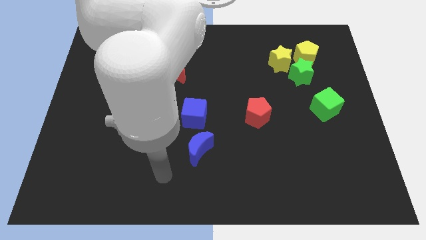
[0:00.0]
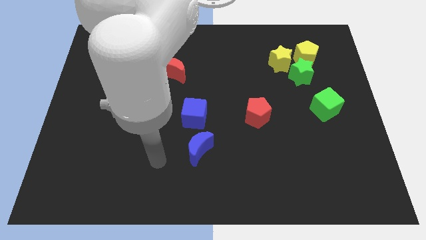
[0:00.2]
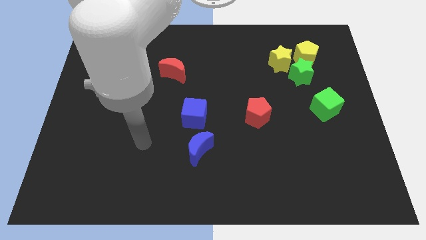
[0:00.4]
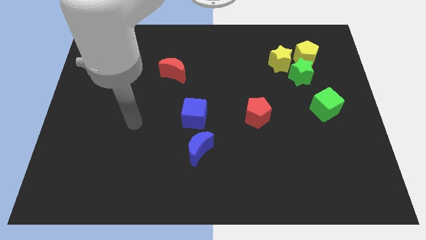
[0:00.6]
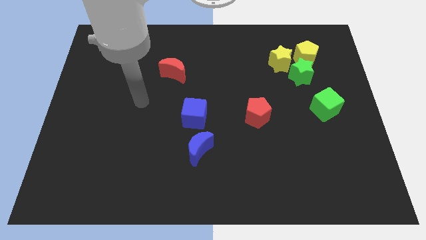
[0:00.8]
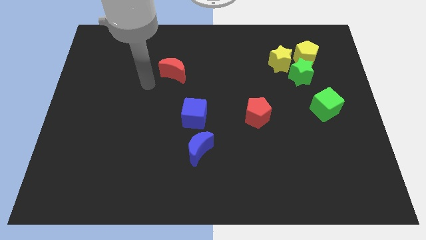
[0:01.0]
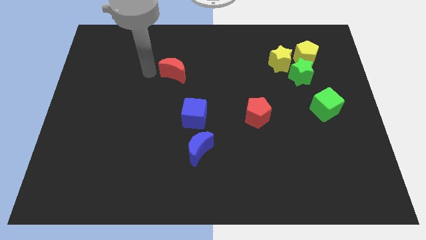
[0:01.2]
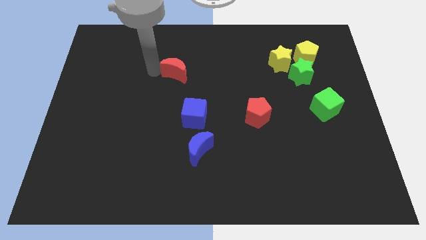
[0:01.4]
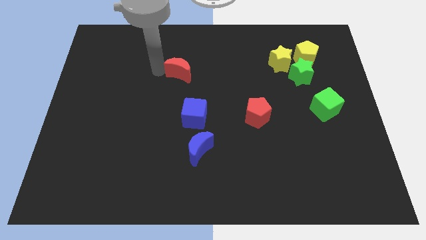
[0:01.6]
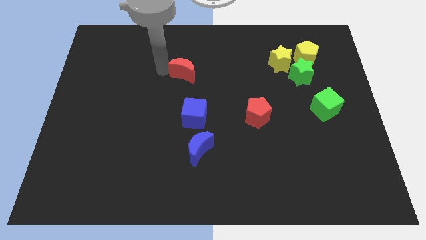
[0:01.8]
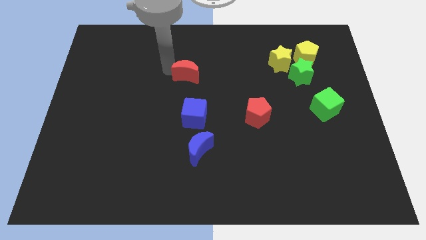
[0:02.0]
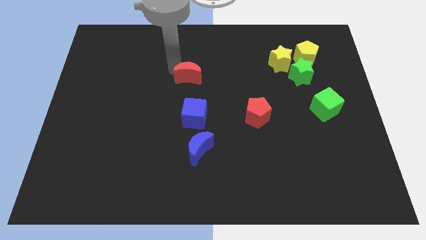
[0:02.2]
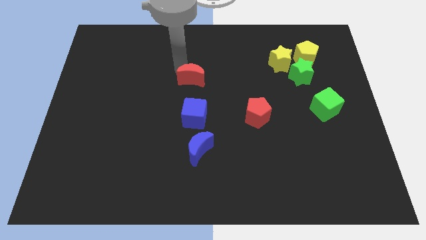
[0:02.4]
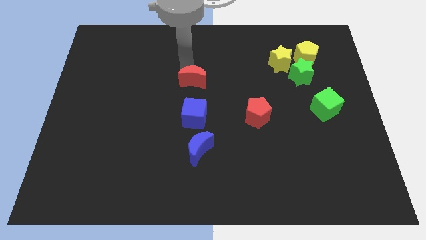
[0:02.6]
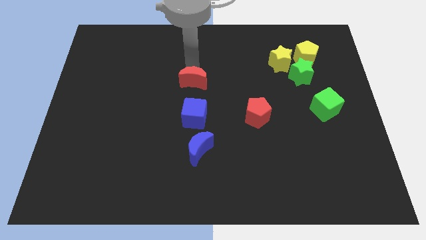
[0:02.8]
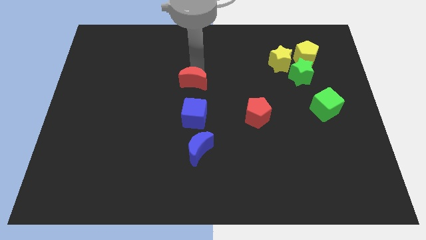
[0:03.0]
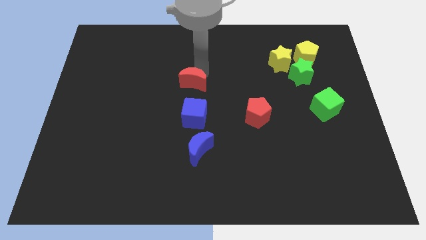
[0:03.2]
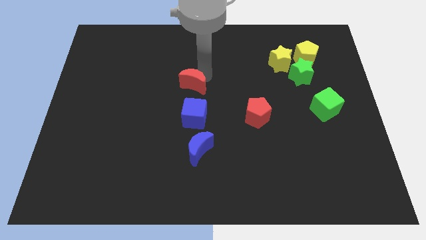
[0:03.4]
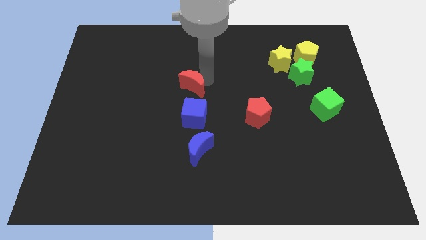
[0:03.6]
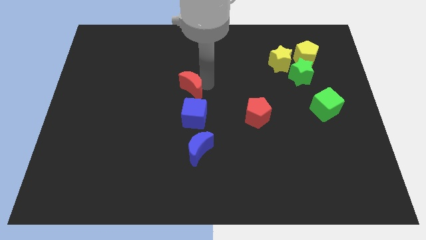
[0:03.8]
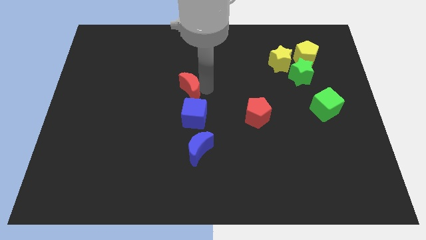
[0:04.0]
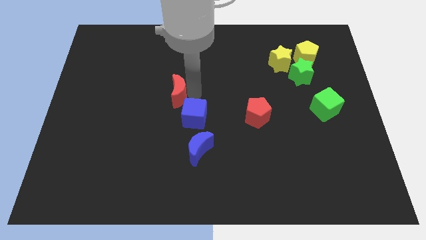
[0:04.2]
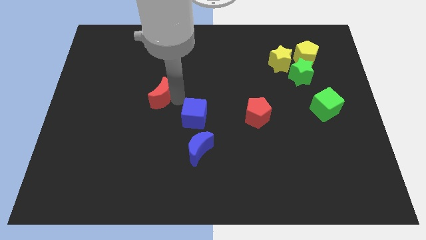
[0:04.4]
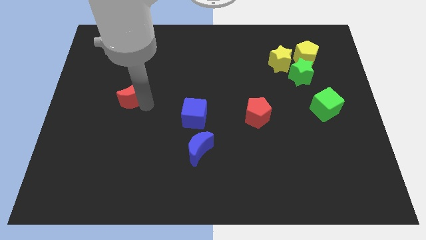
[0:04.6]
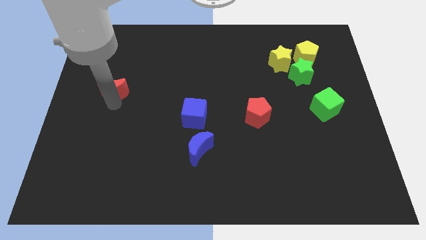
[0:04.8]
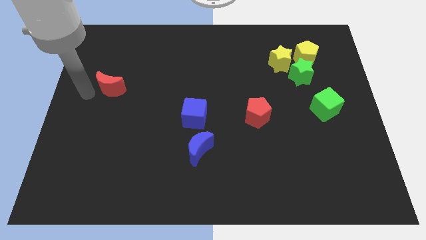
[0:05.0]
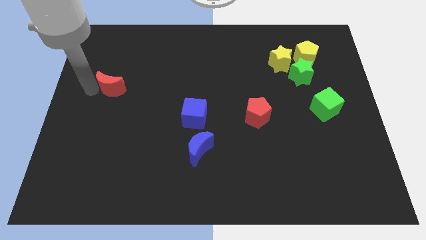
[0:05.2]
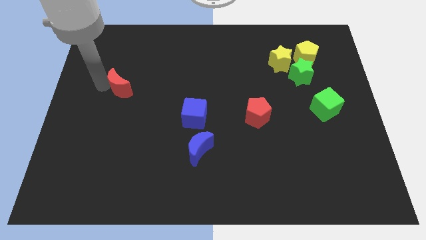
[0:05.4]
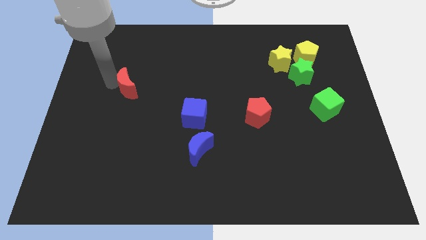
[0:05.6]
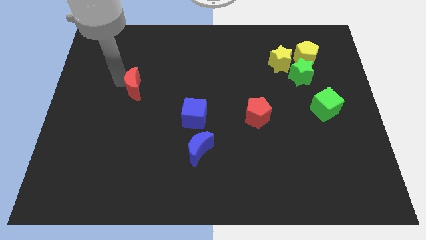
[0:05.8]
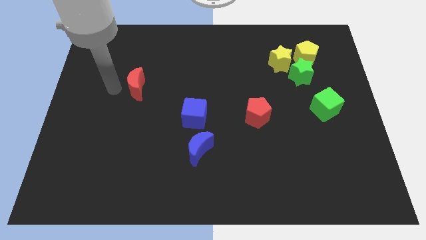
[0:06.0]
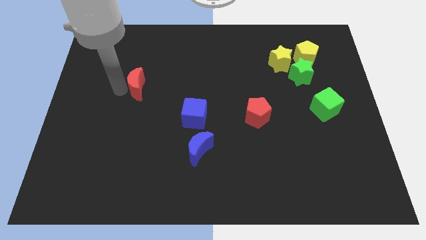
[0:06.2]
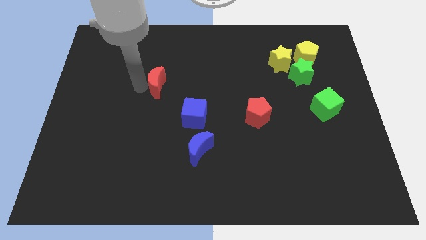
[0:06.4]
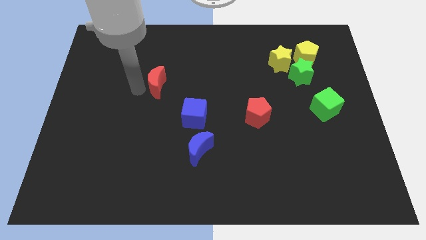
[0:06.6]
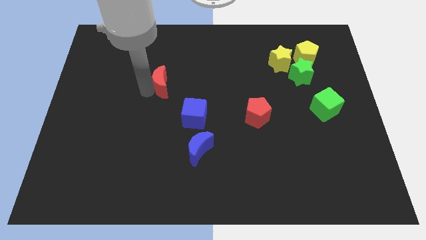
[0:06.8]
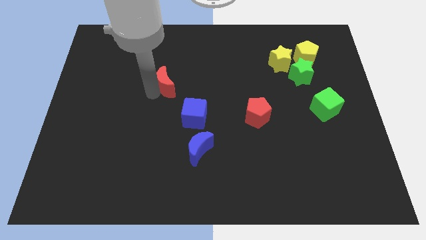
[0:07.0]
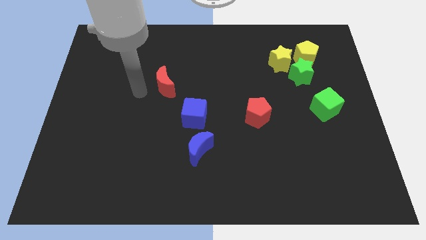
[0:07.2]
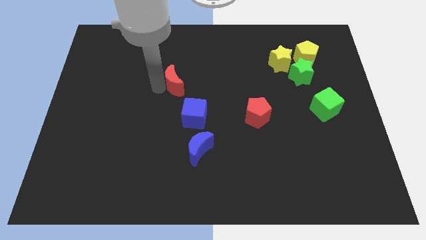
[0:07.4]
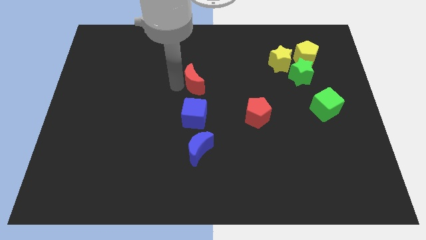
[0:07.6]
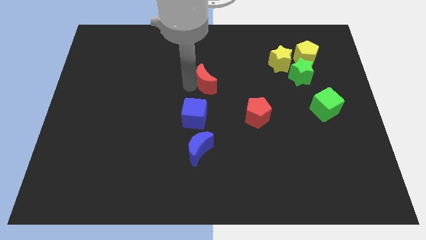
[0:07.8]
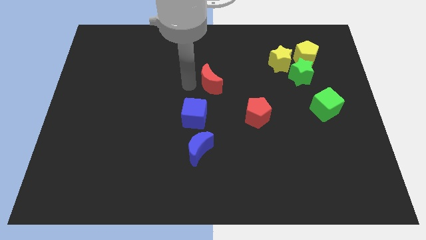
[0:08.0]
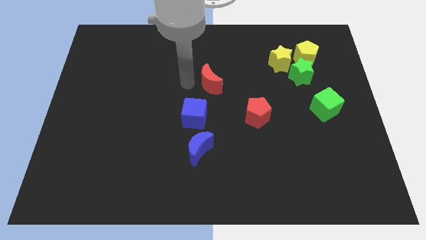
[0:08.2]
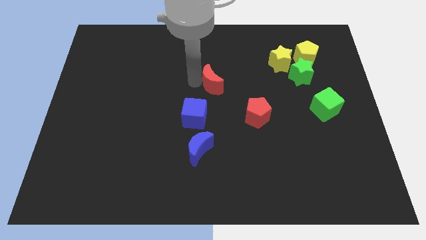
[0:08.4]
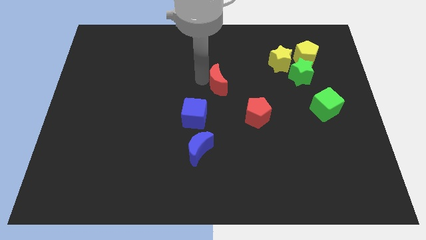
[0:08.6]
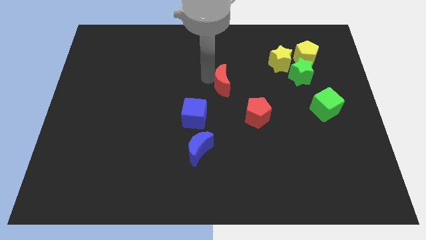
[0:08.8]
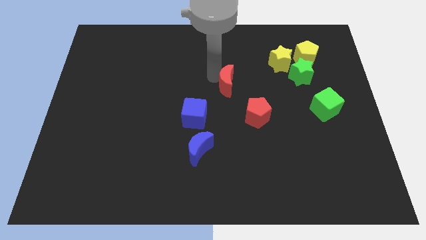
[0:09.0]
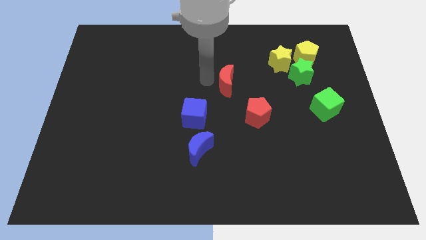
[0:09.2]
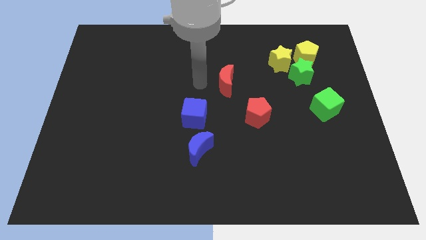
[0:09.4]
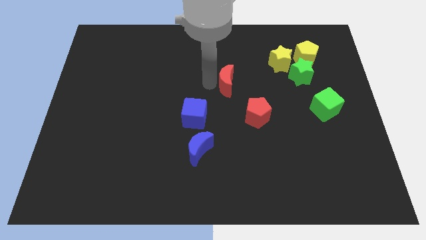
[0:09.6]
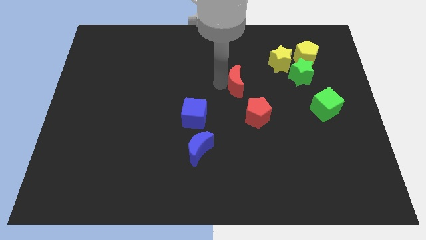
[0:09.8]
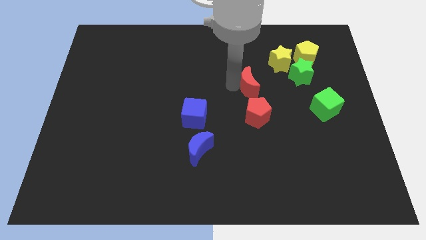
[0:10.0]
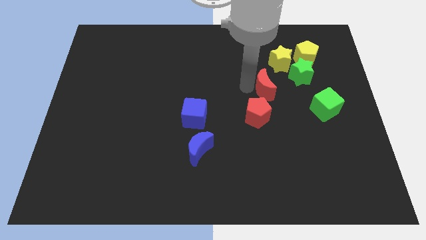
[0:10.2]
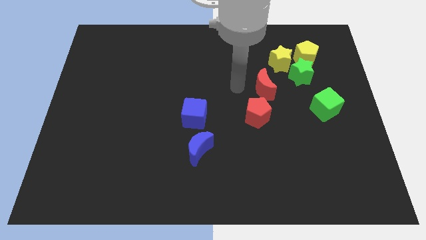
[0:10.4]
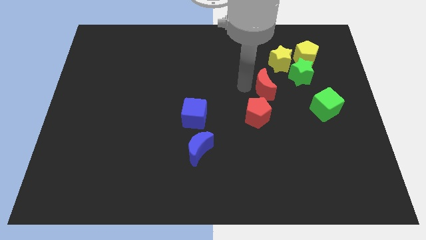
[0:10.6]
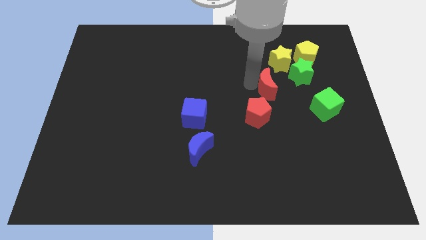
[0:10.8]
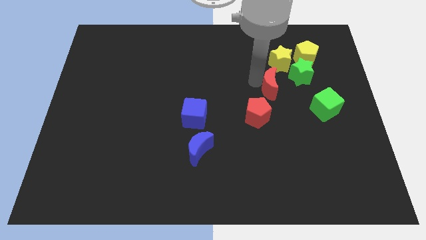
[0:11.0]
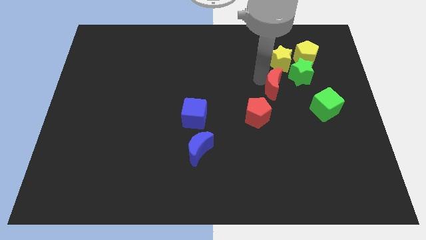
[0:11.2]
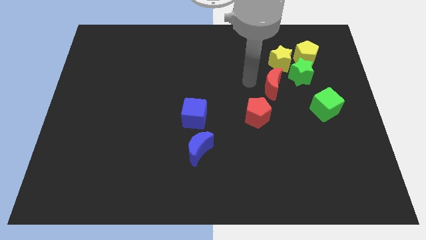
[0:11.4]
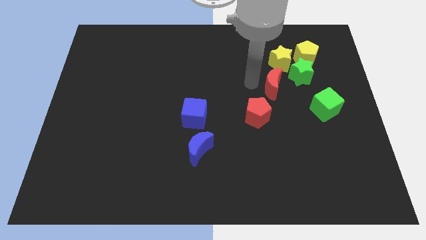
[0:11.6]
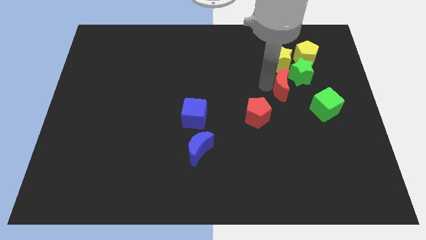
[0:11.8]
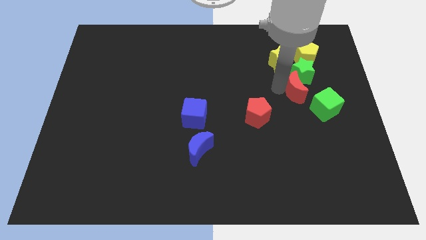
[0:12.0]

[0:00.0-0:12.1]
slide the red moon below the yellow pentagon

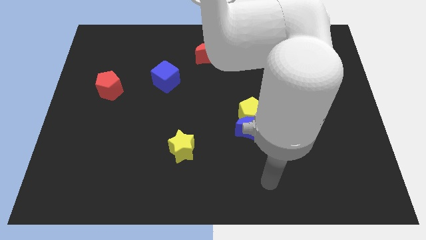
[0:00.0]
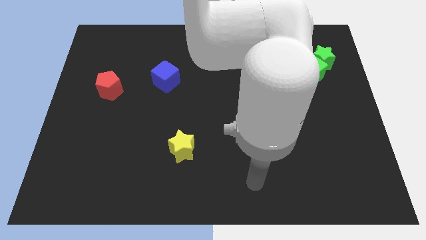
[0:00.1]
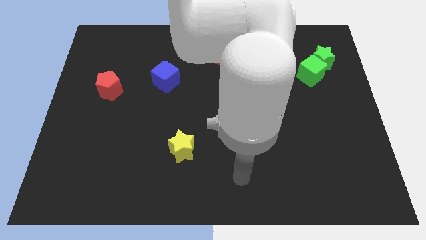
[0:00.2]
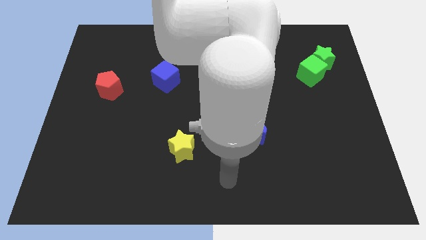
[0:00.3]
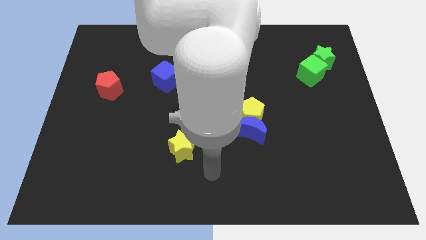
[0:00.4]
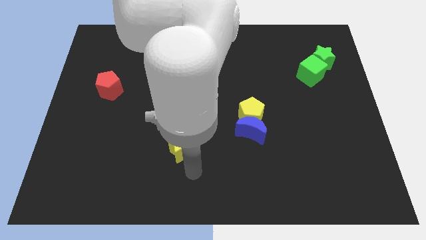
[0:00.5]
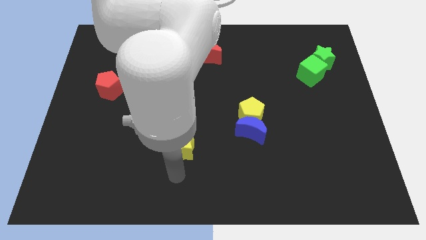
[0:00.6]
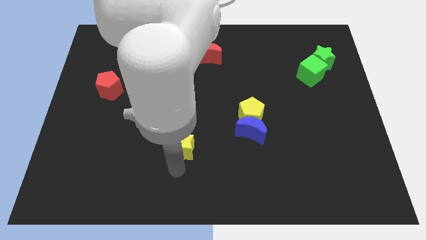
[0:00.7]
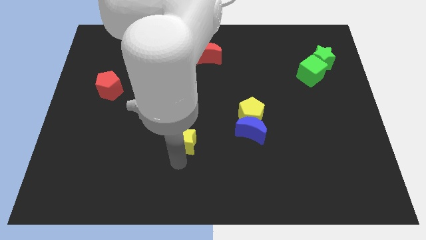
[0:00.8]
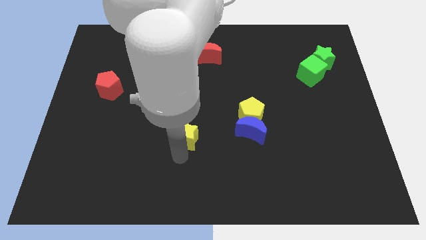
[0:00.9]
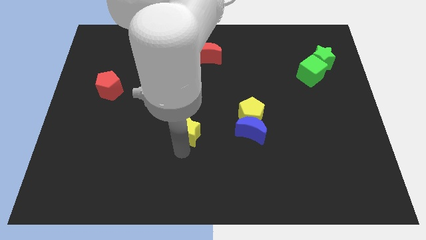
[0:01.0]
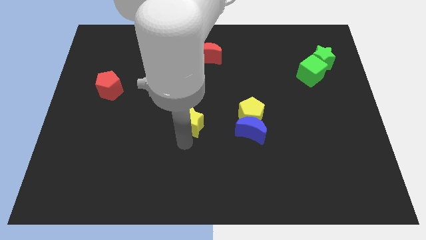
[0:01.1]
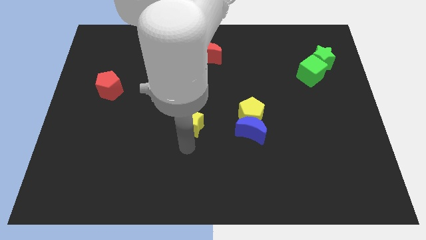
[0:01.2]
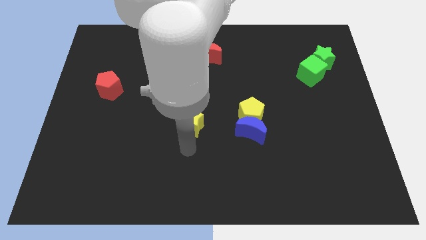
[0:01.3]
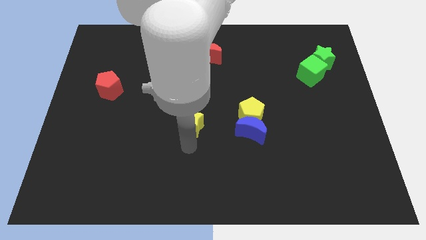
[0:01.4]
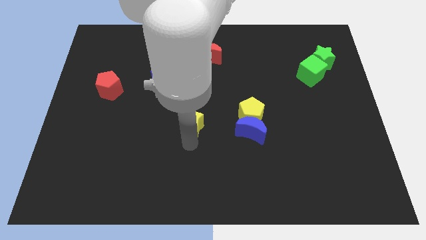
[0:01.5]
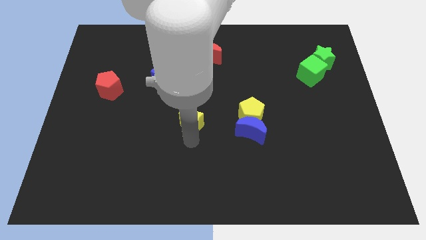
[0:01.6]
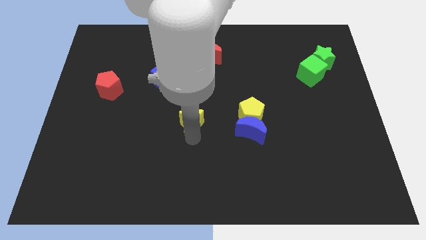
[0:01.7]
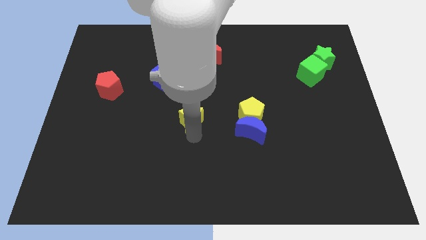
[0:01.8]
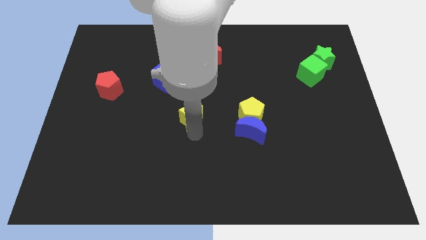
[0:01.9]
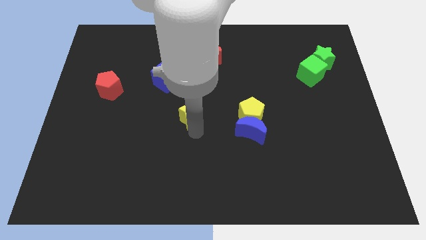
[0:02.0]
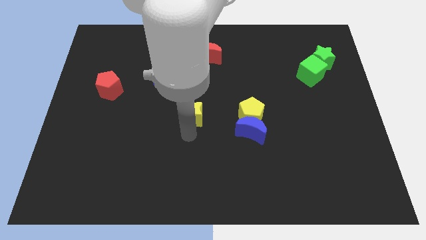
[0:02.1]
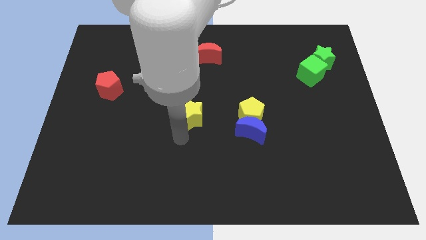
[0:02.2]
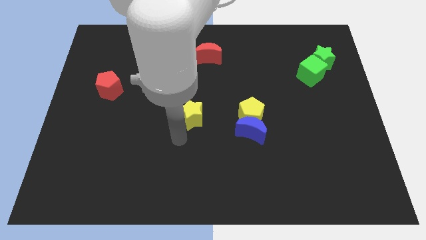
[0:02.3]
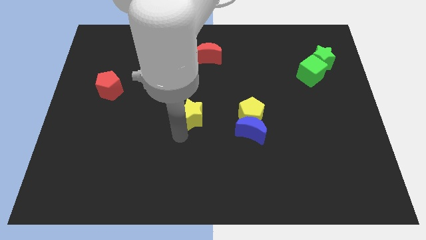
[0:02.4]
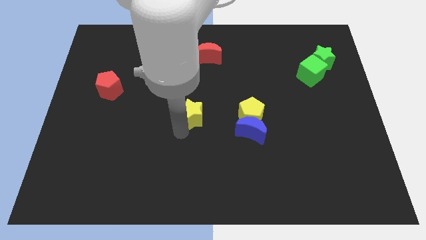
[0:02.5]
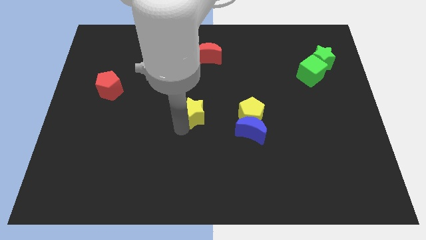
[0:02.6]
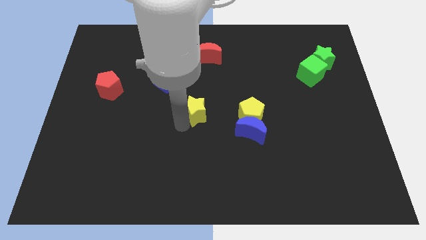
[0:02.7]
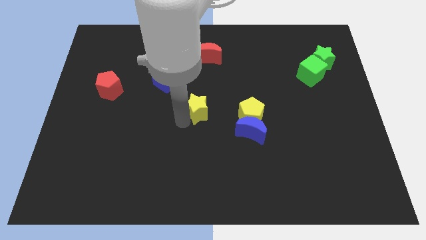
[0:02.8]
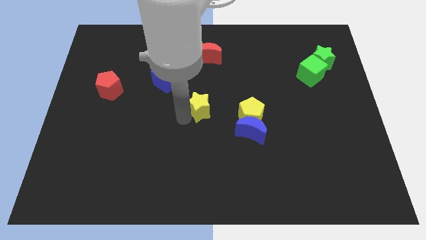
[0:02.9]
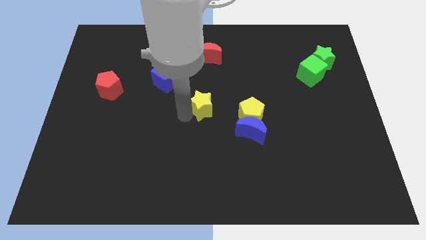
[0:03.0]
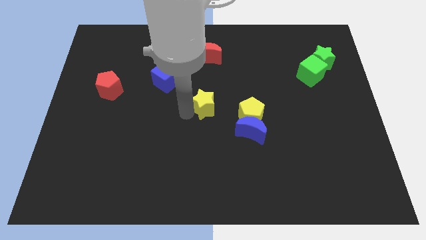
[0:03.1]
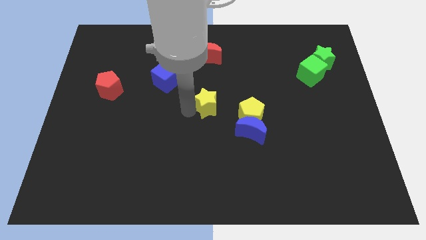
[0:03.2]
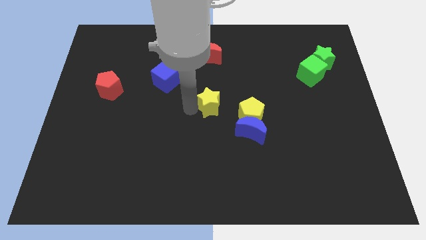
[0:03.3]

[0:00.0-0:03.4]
slide the yellow star below the red moon
